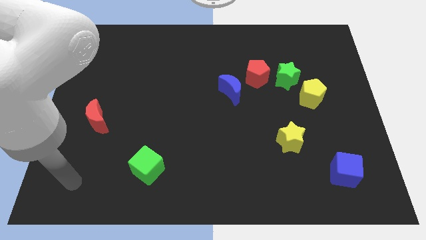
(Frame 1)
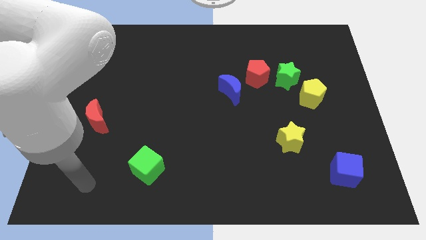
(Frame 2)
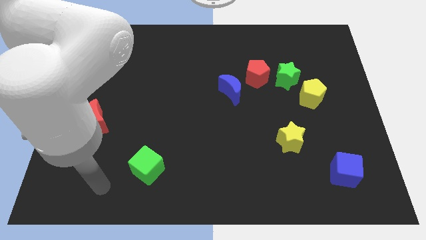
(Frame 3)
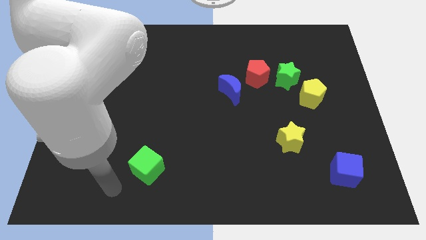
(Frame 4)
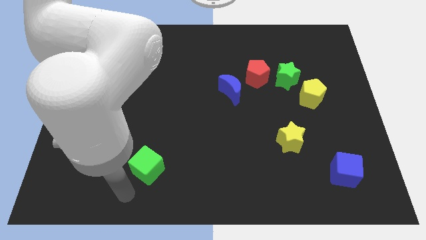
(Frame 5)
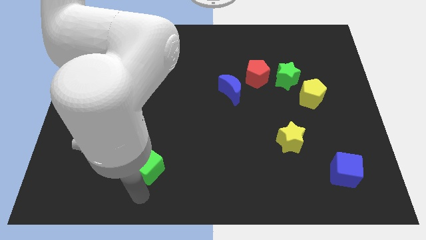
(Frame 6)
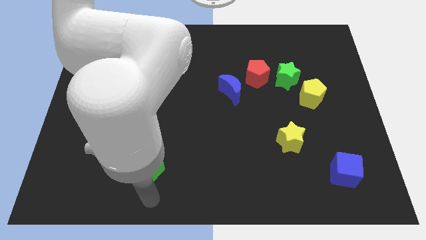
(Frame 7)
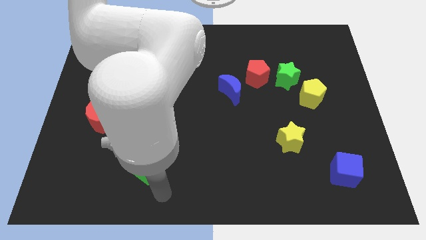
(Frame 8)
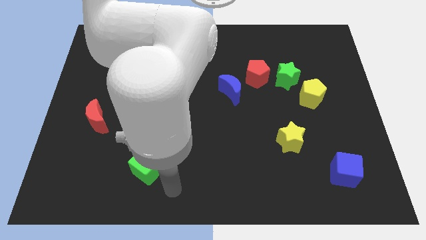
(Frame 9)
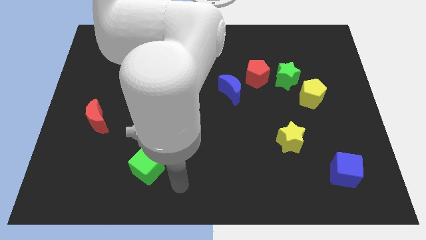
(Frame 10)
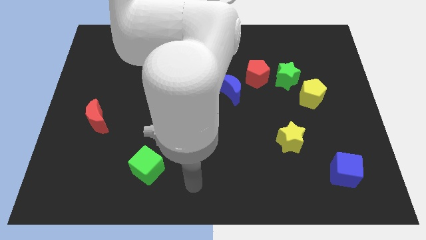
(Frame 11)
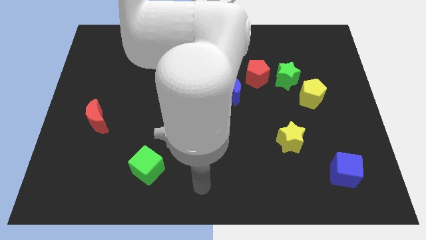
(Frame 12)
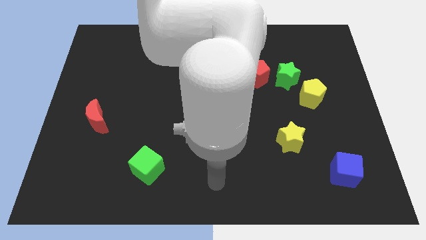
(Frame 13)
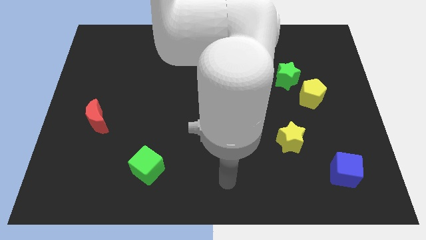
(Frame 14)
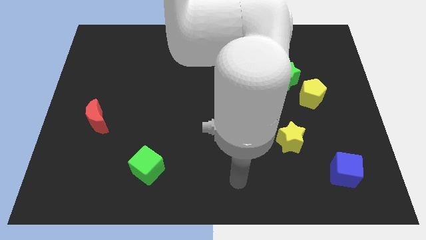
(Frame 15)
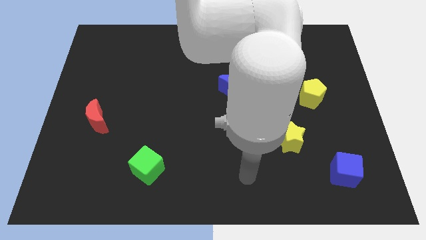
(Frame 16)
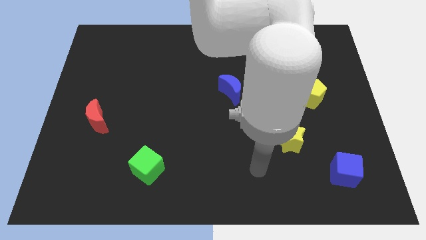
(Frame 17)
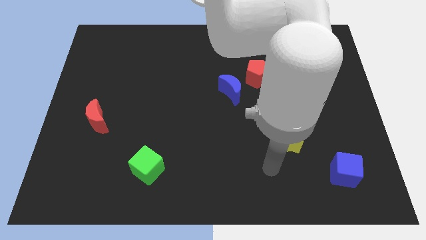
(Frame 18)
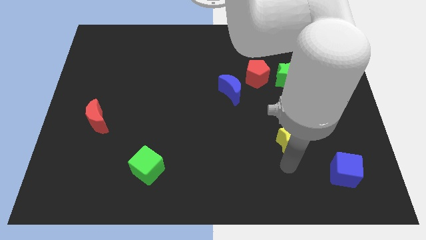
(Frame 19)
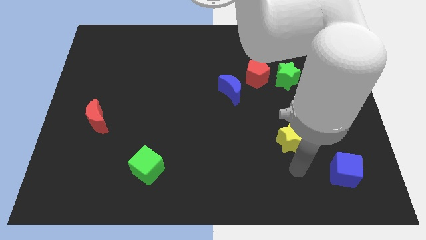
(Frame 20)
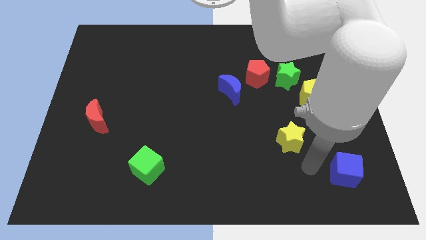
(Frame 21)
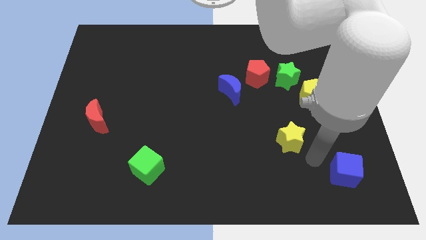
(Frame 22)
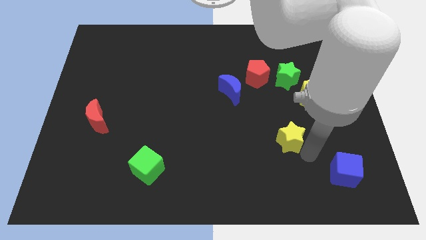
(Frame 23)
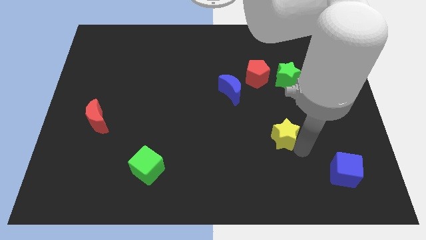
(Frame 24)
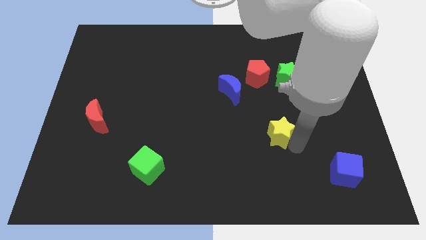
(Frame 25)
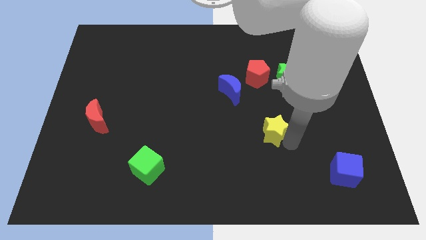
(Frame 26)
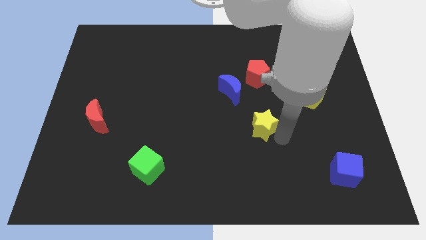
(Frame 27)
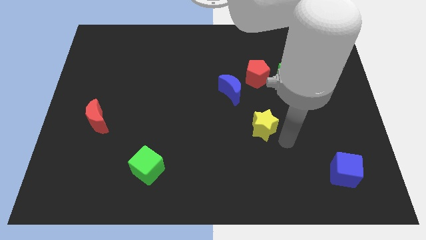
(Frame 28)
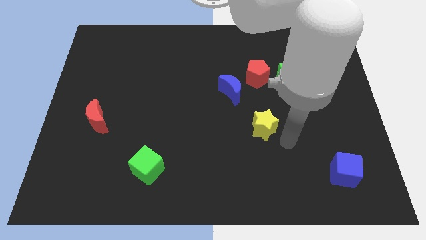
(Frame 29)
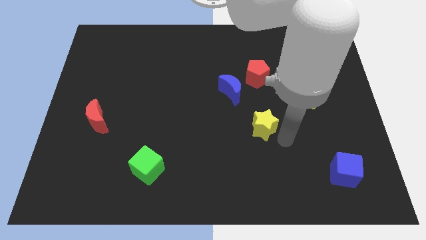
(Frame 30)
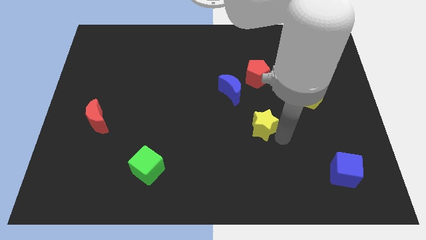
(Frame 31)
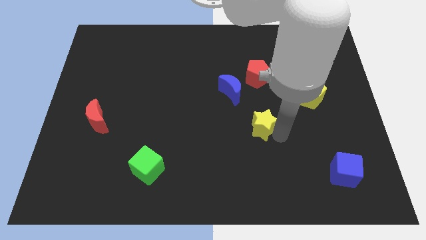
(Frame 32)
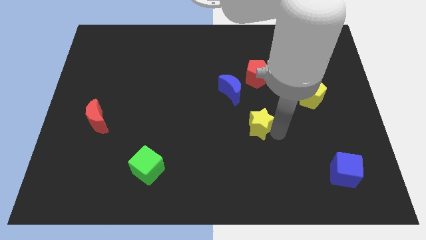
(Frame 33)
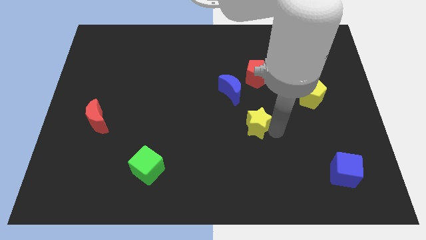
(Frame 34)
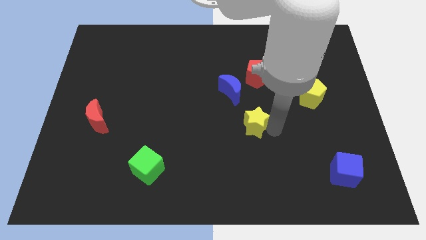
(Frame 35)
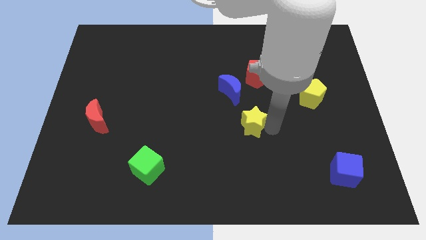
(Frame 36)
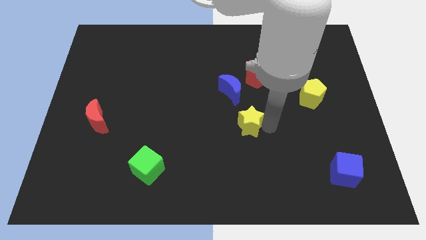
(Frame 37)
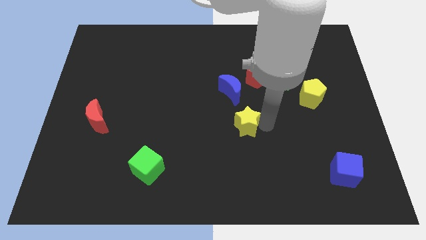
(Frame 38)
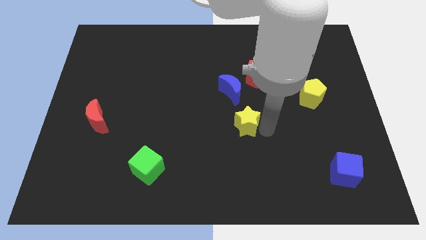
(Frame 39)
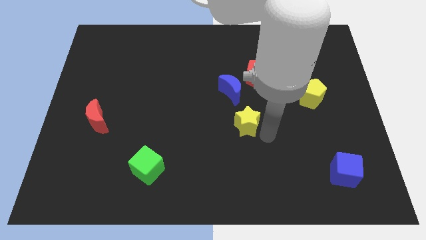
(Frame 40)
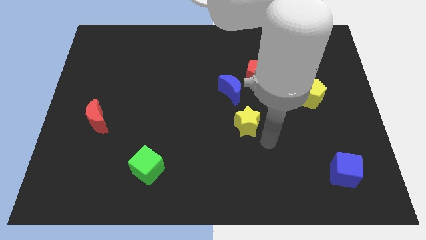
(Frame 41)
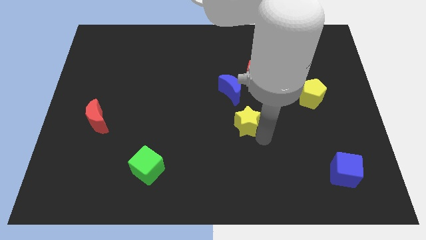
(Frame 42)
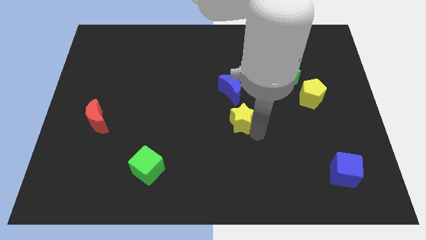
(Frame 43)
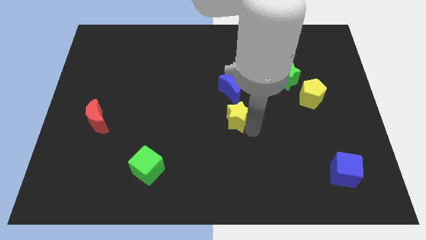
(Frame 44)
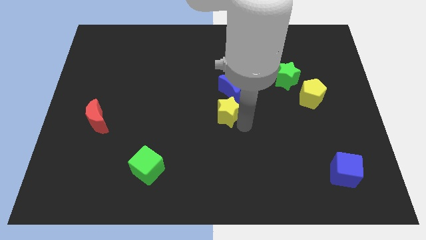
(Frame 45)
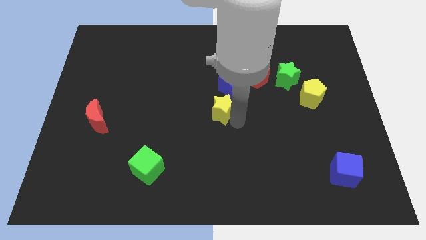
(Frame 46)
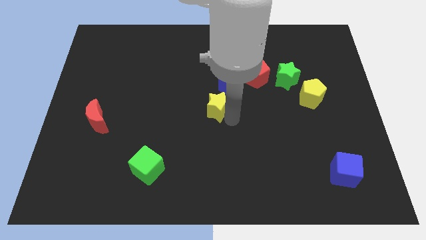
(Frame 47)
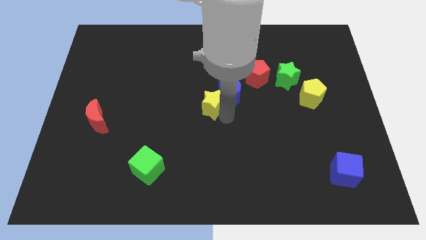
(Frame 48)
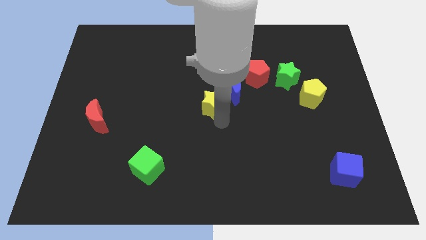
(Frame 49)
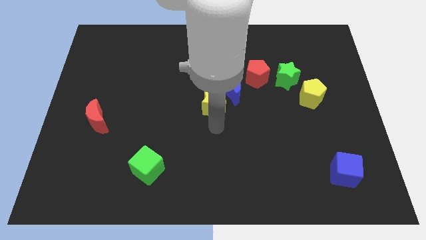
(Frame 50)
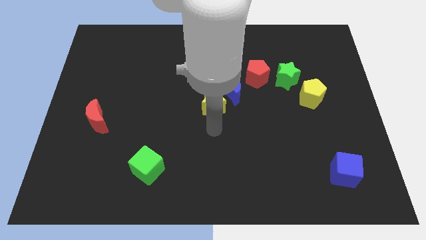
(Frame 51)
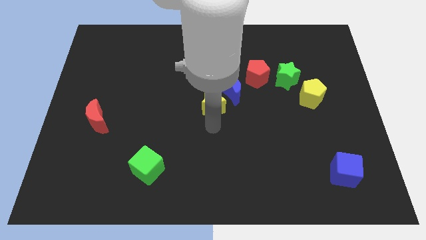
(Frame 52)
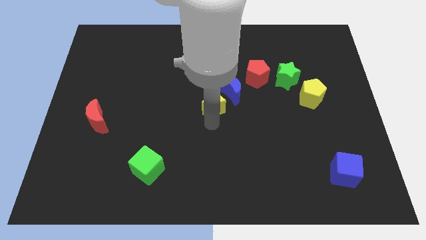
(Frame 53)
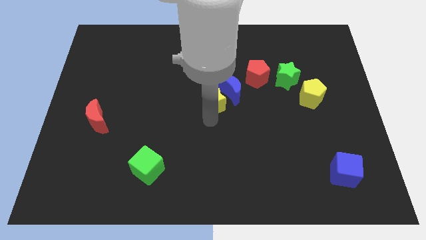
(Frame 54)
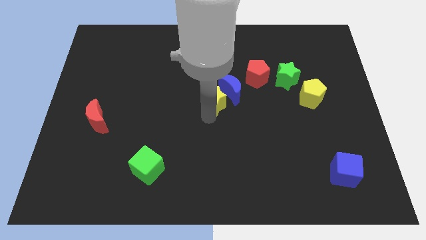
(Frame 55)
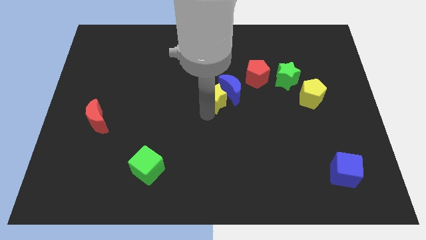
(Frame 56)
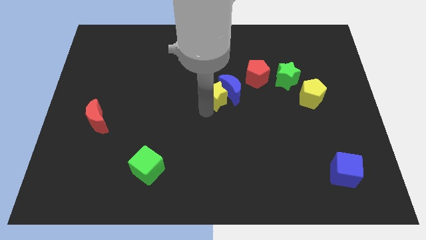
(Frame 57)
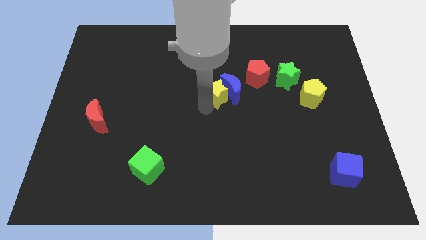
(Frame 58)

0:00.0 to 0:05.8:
put the yellow star to the top left of the blue moon

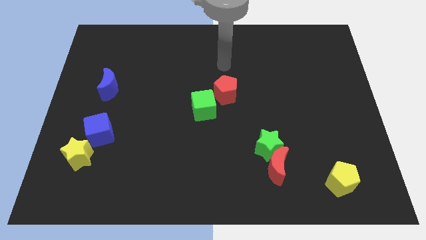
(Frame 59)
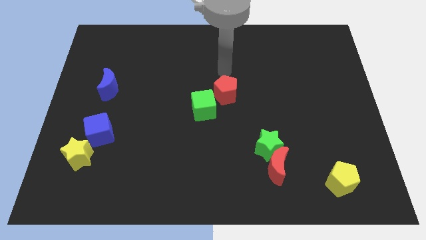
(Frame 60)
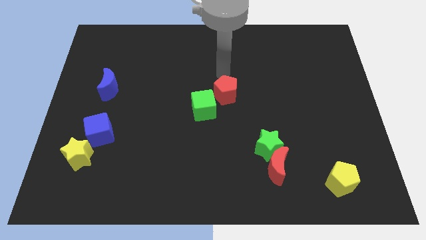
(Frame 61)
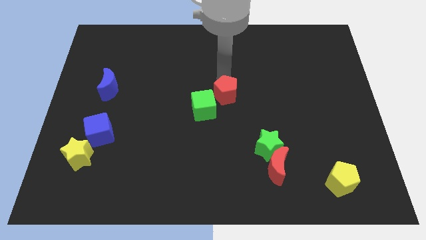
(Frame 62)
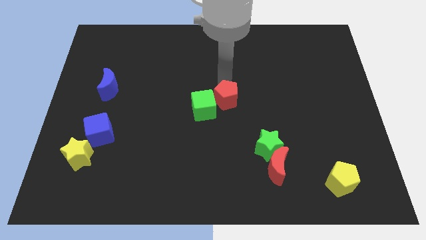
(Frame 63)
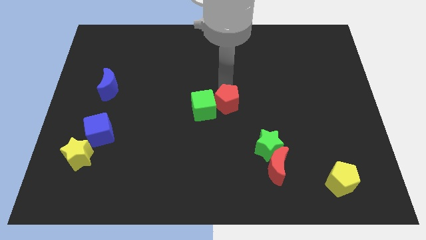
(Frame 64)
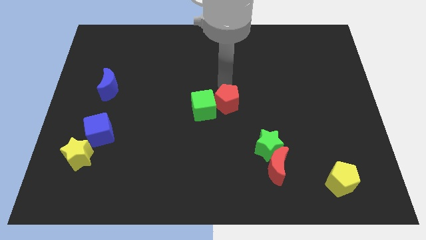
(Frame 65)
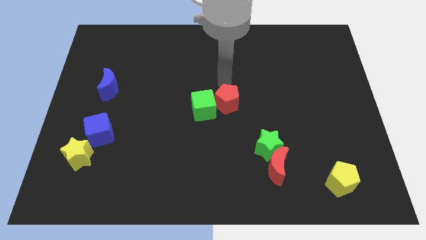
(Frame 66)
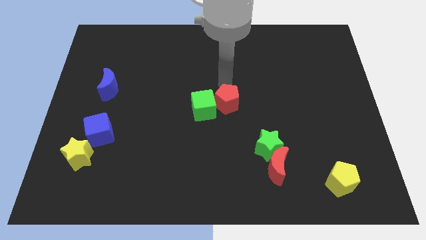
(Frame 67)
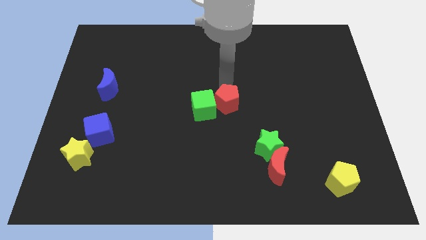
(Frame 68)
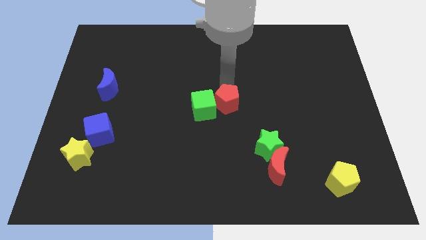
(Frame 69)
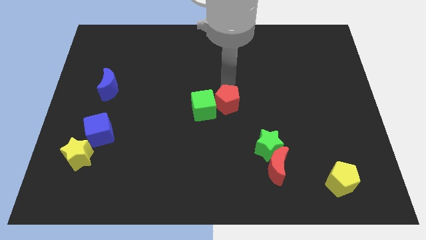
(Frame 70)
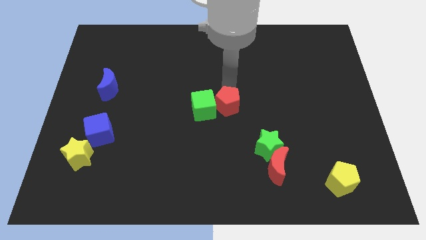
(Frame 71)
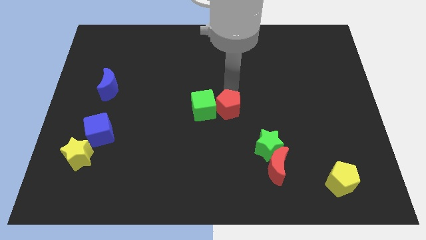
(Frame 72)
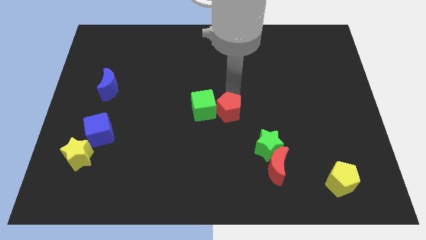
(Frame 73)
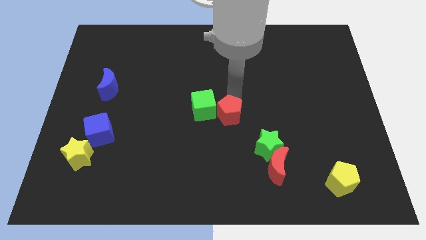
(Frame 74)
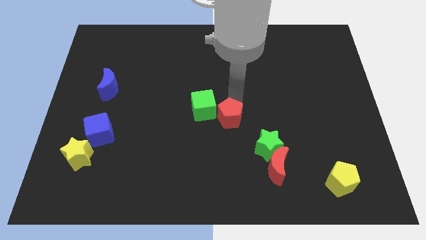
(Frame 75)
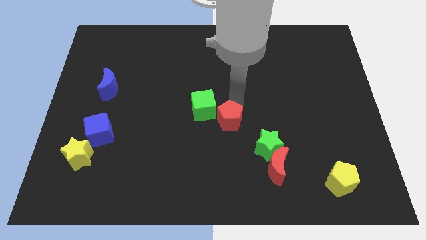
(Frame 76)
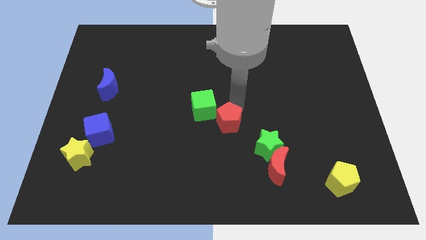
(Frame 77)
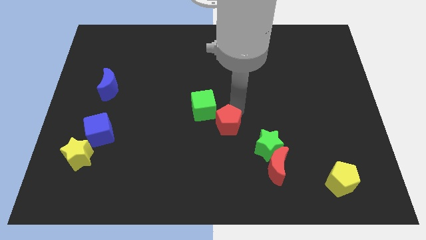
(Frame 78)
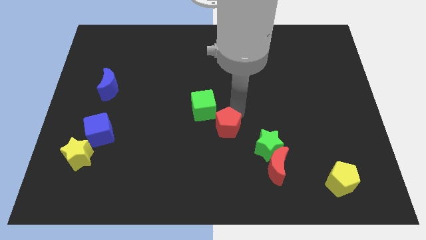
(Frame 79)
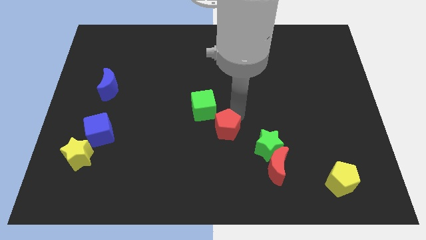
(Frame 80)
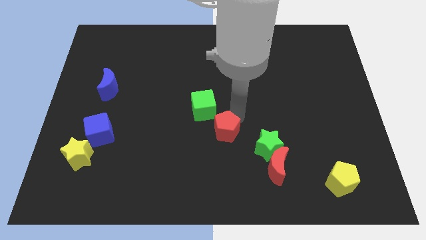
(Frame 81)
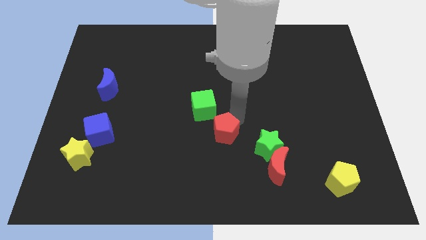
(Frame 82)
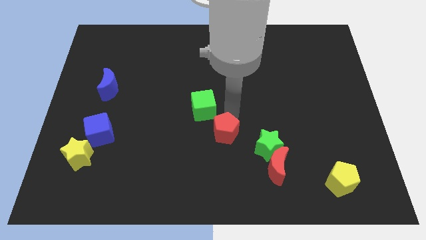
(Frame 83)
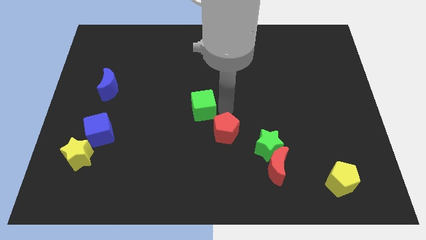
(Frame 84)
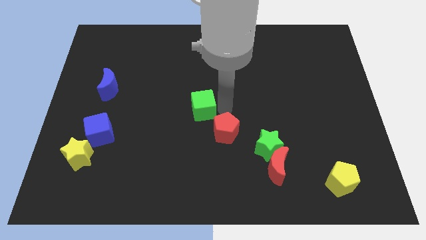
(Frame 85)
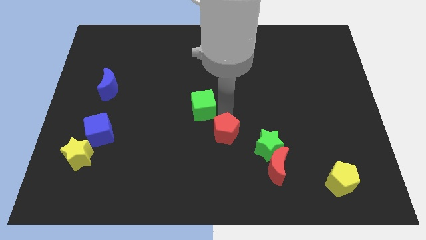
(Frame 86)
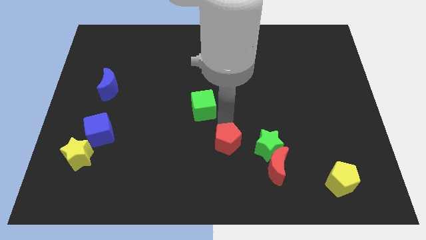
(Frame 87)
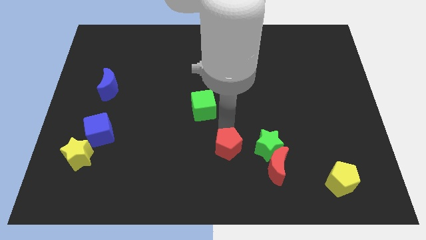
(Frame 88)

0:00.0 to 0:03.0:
move the red pentagon to the left of the red moon
